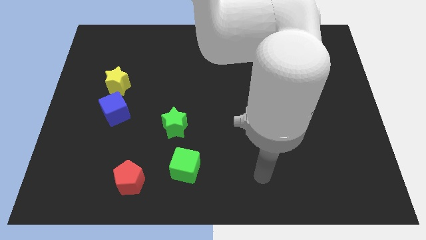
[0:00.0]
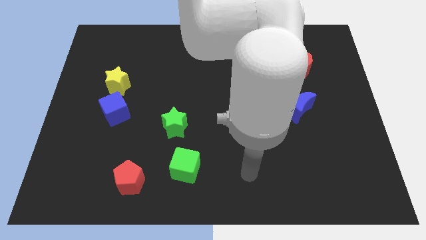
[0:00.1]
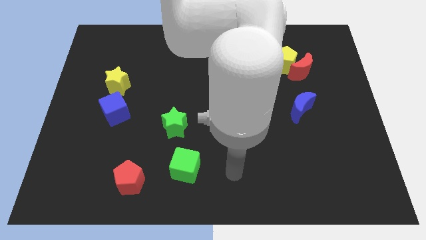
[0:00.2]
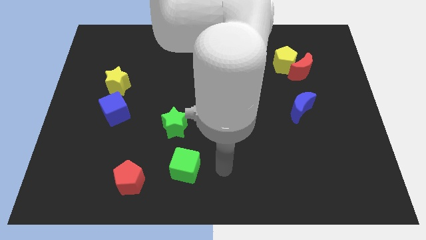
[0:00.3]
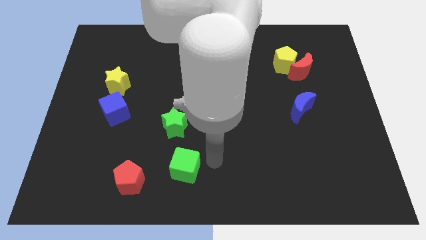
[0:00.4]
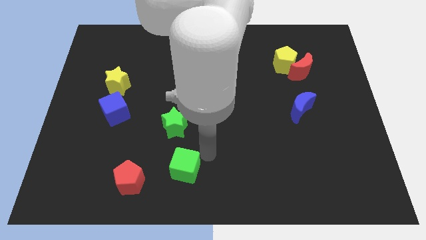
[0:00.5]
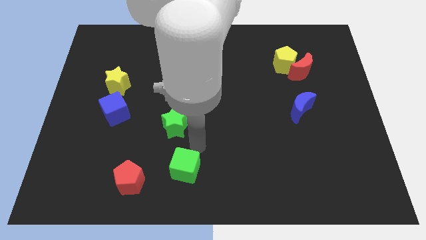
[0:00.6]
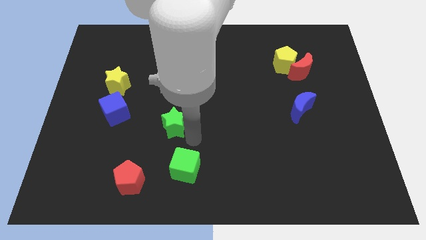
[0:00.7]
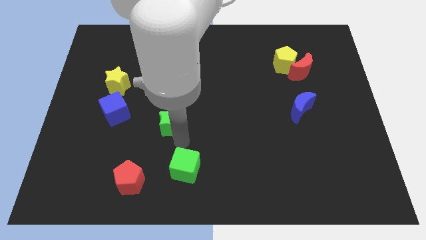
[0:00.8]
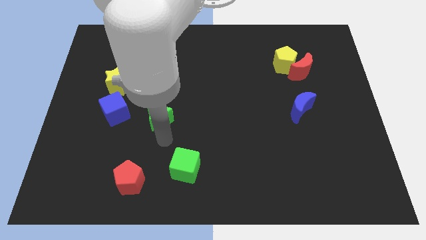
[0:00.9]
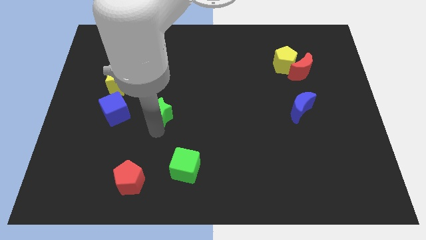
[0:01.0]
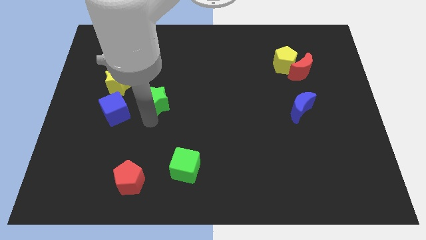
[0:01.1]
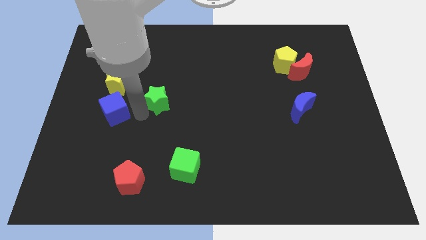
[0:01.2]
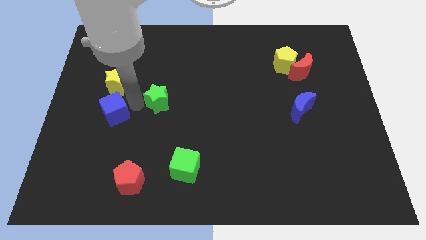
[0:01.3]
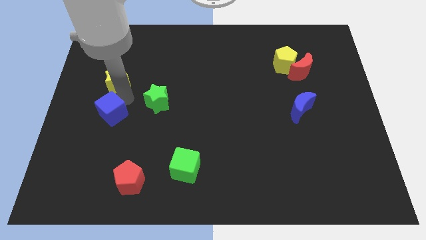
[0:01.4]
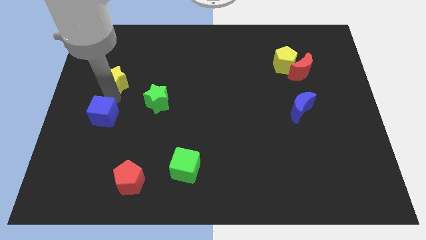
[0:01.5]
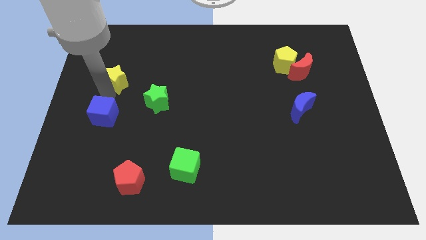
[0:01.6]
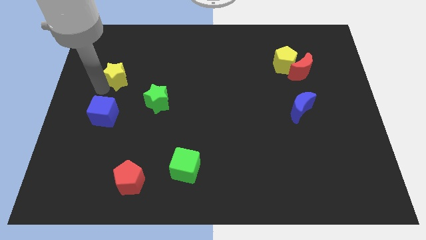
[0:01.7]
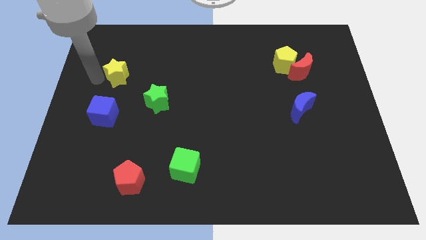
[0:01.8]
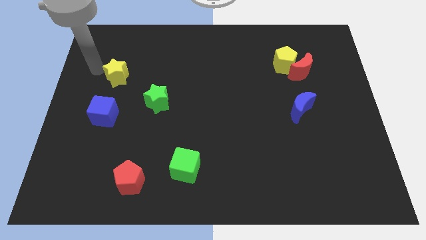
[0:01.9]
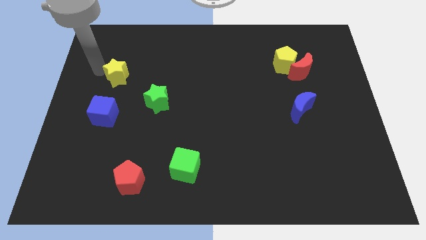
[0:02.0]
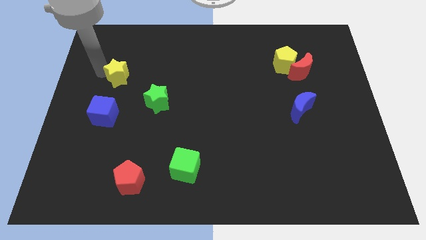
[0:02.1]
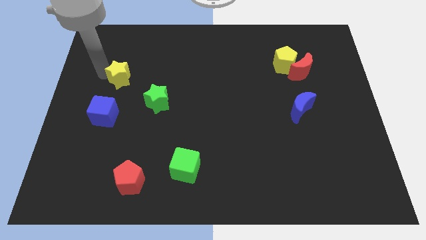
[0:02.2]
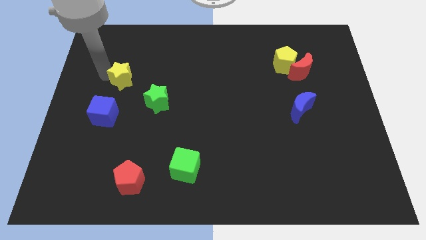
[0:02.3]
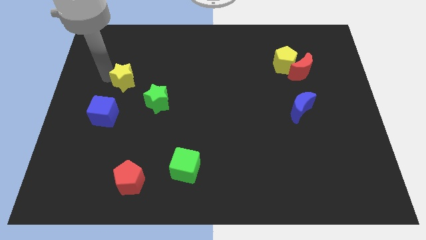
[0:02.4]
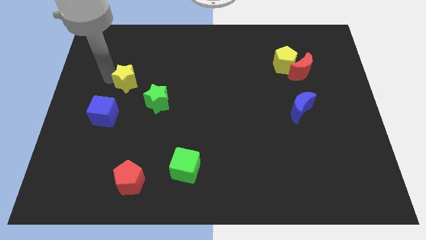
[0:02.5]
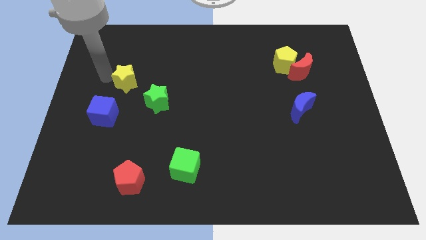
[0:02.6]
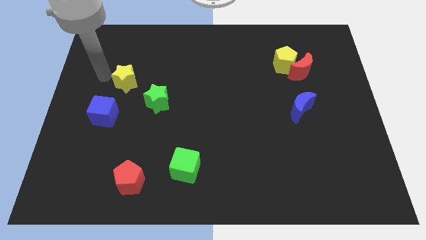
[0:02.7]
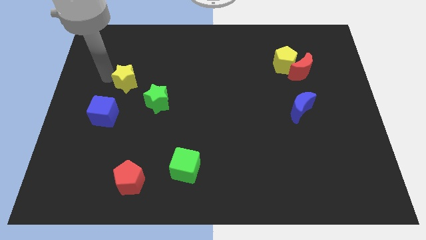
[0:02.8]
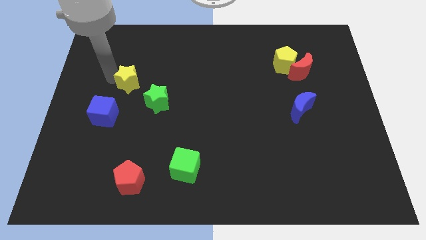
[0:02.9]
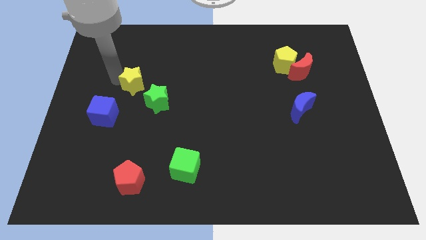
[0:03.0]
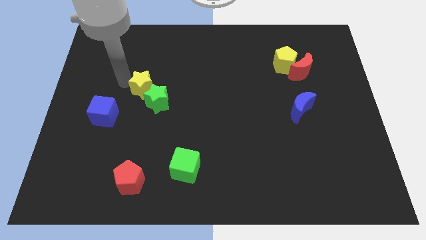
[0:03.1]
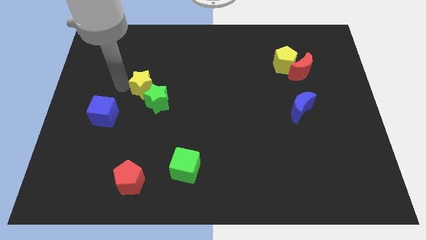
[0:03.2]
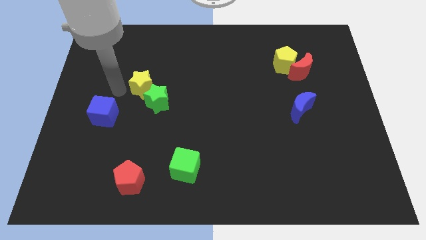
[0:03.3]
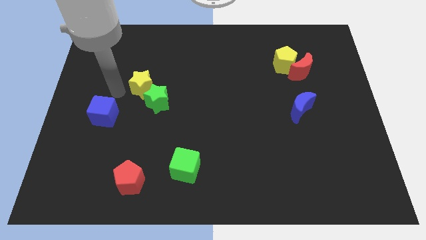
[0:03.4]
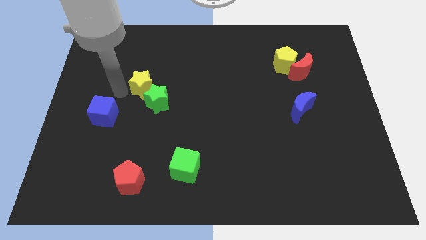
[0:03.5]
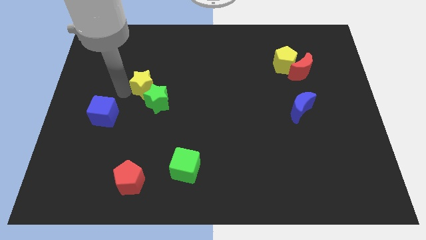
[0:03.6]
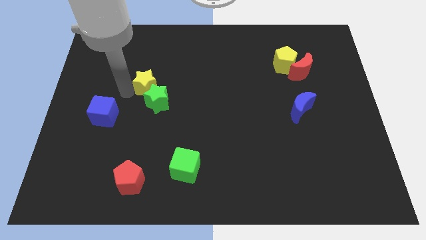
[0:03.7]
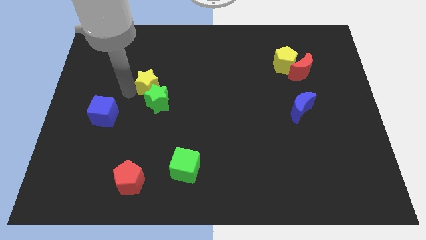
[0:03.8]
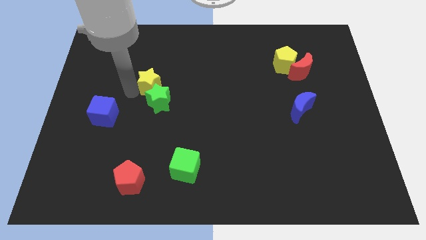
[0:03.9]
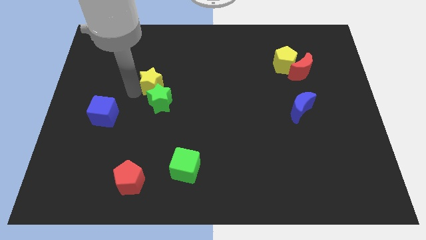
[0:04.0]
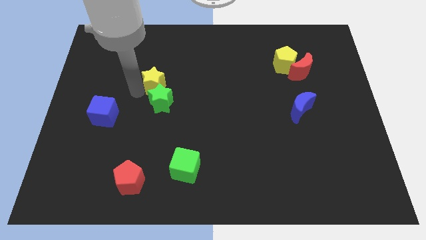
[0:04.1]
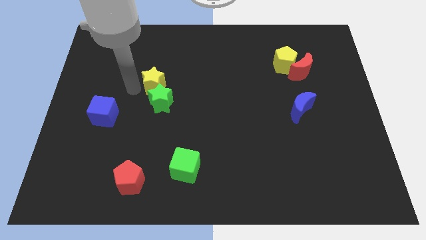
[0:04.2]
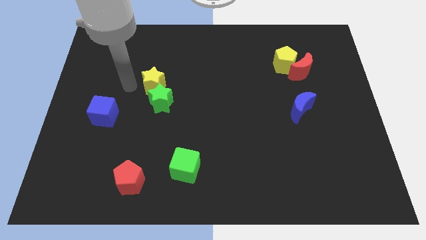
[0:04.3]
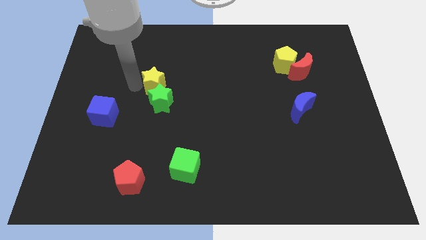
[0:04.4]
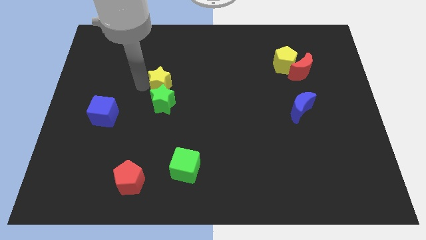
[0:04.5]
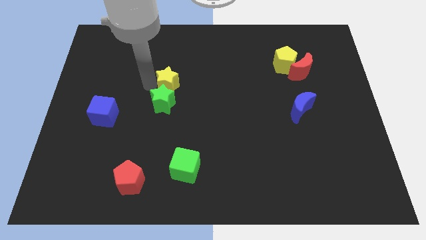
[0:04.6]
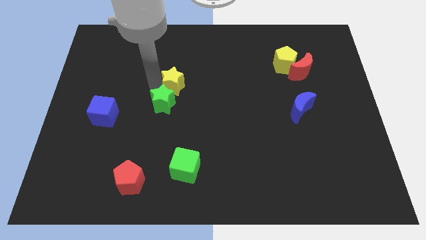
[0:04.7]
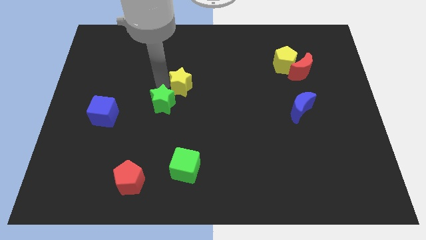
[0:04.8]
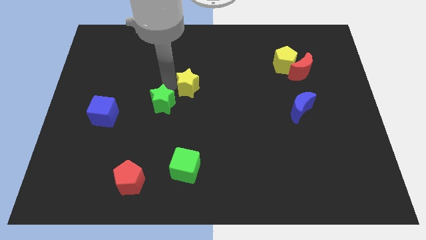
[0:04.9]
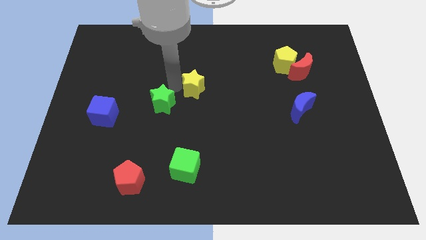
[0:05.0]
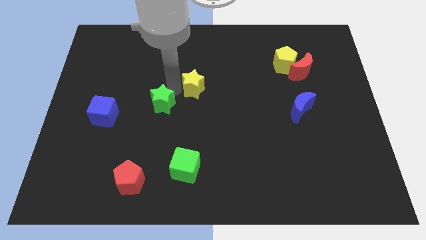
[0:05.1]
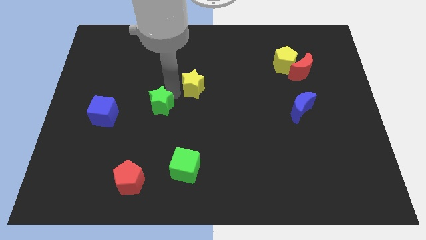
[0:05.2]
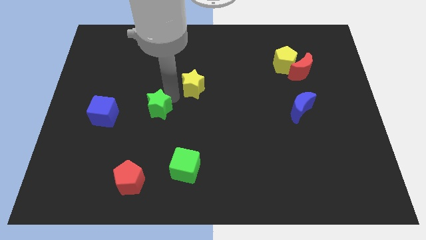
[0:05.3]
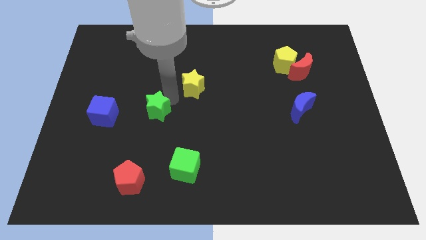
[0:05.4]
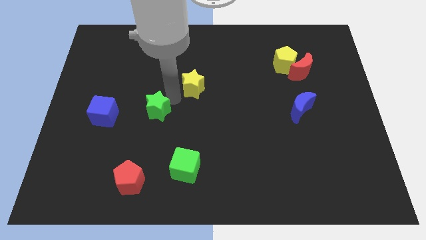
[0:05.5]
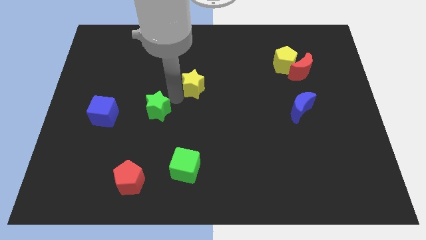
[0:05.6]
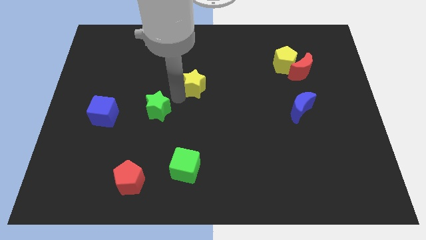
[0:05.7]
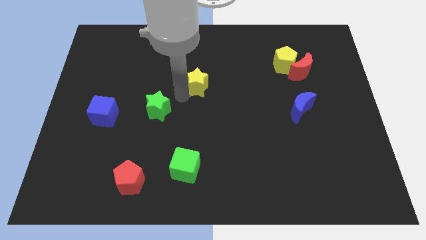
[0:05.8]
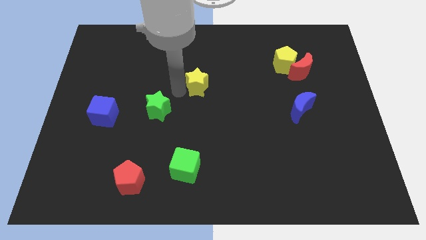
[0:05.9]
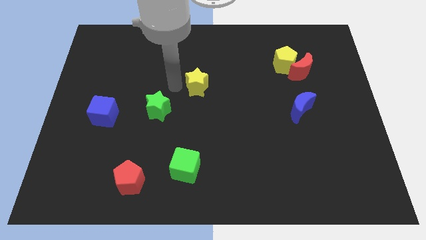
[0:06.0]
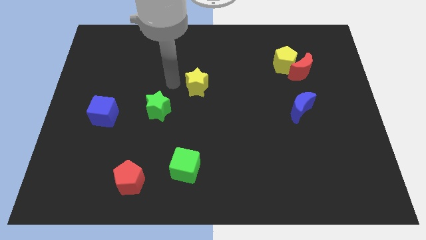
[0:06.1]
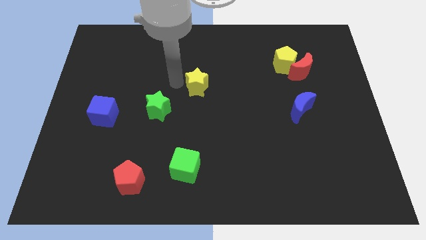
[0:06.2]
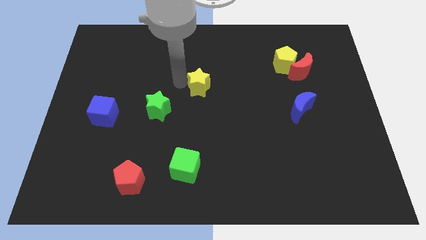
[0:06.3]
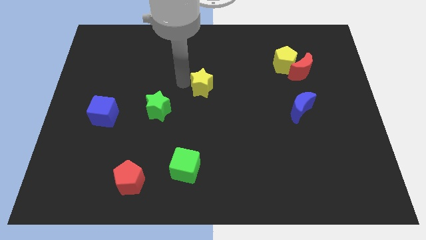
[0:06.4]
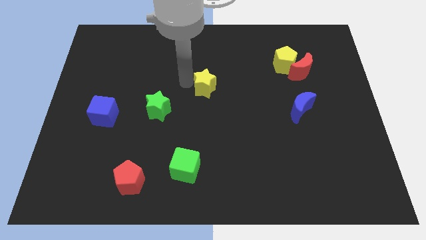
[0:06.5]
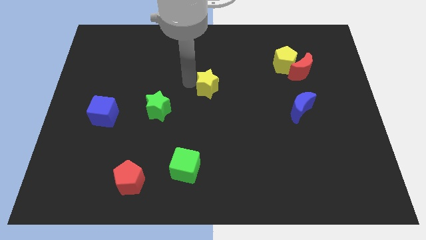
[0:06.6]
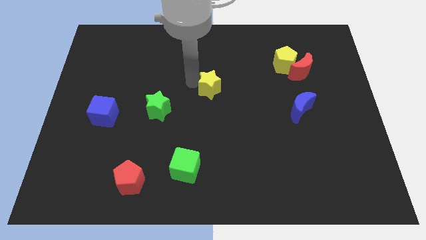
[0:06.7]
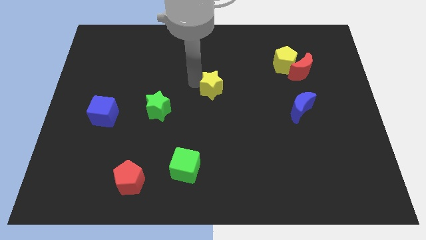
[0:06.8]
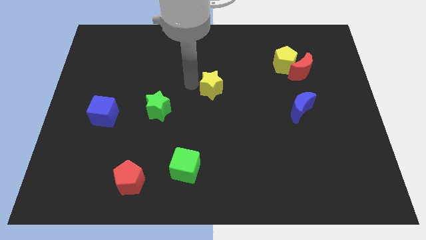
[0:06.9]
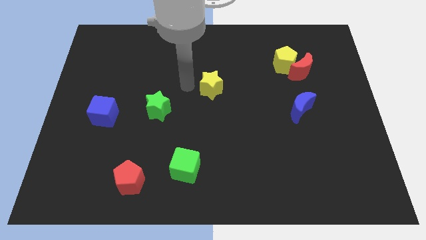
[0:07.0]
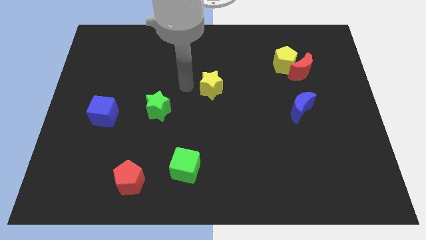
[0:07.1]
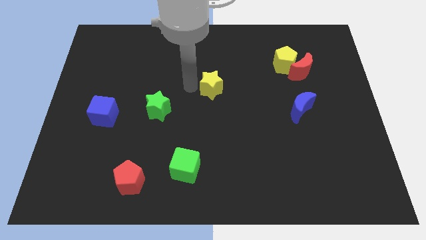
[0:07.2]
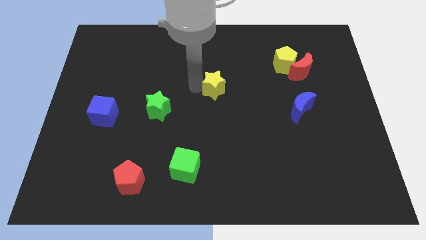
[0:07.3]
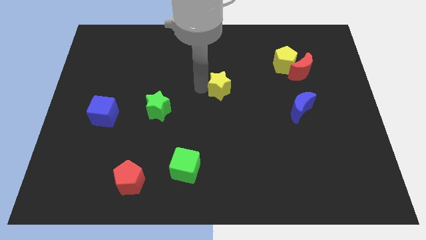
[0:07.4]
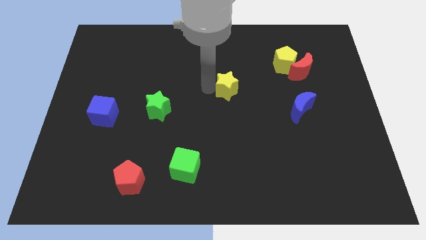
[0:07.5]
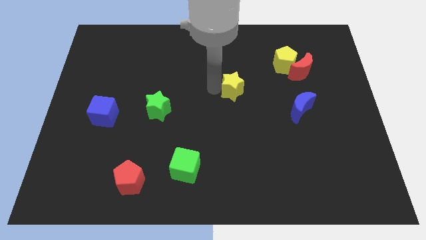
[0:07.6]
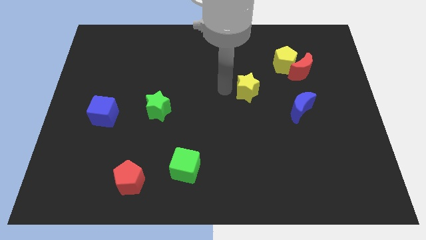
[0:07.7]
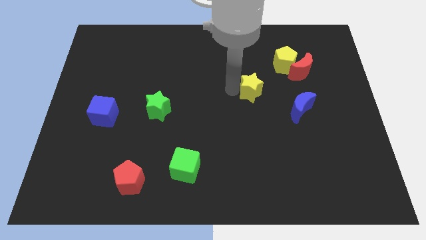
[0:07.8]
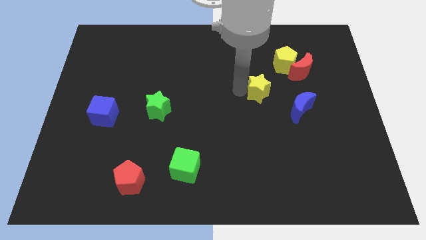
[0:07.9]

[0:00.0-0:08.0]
slide the yellow star diagonally up and to the left of the blue moon
